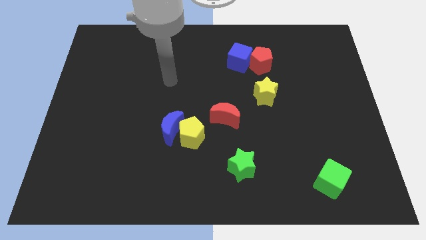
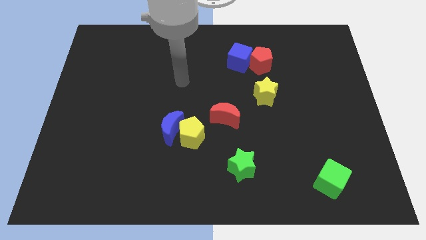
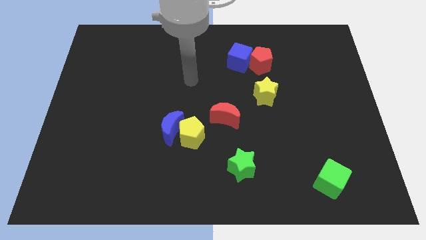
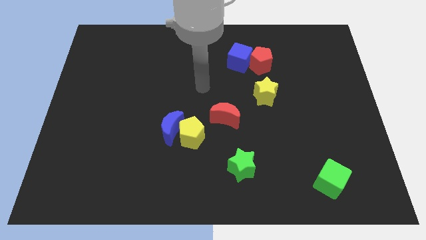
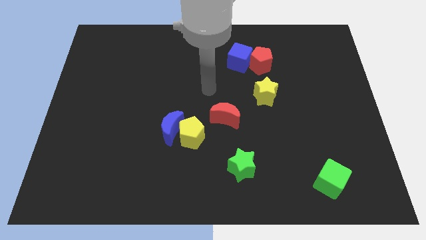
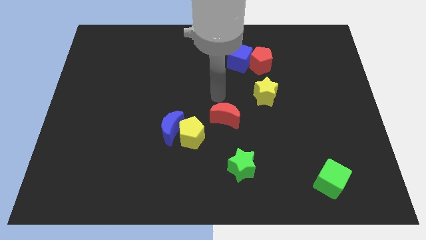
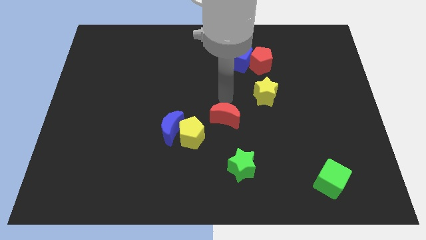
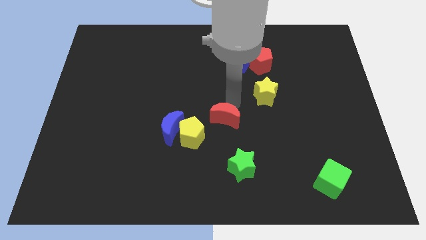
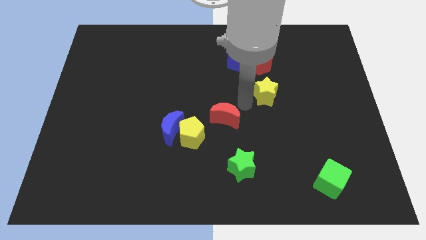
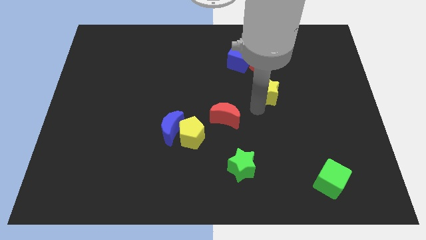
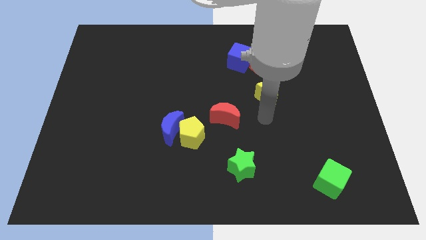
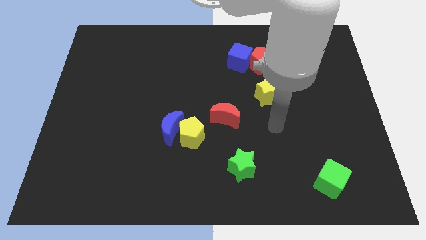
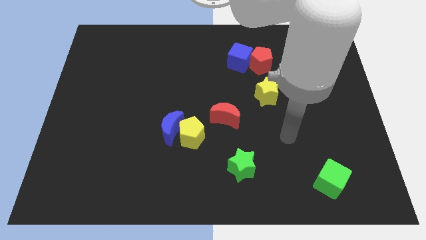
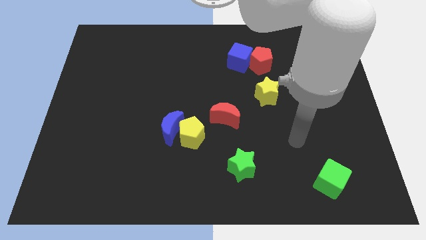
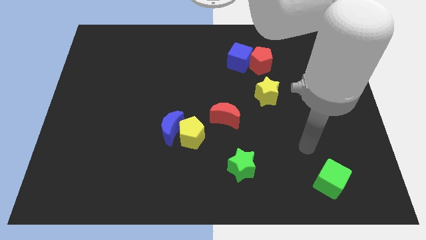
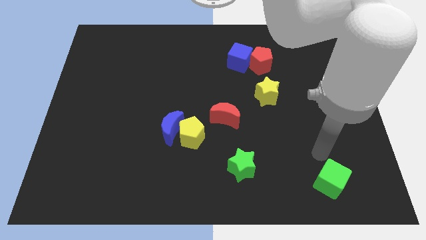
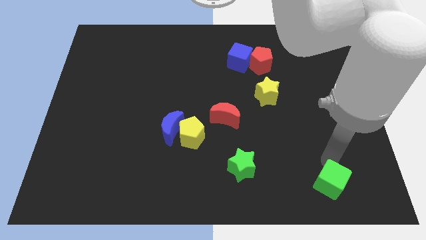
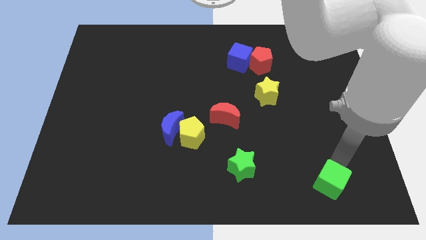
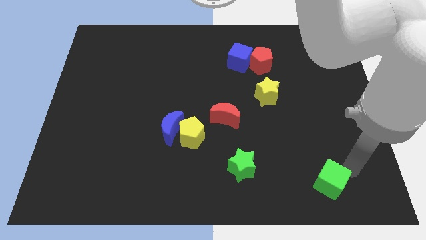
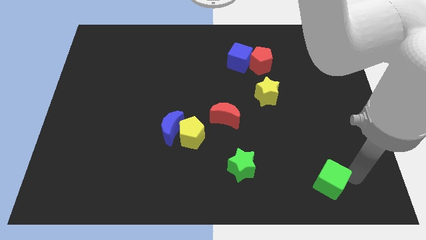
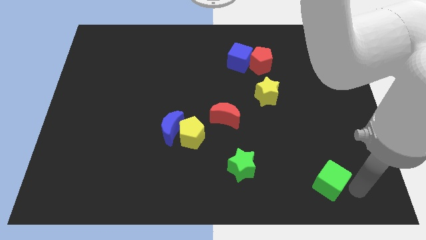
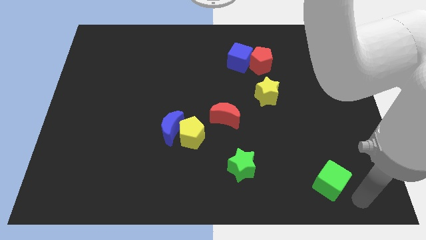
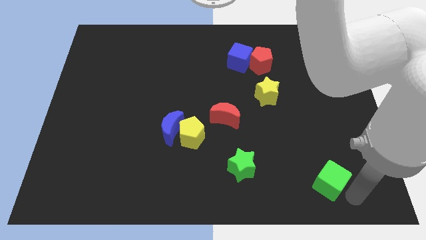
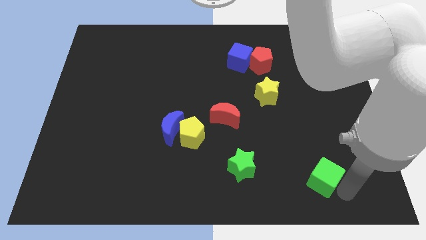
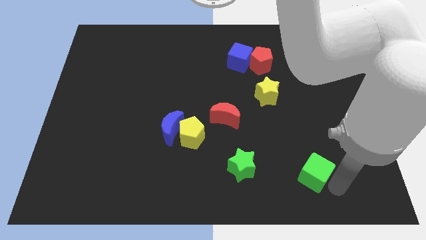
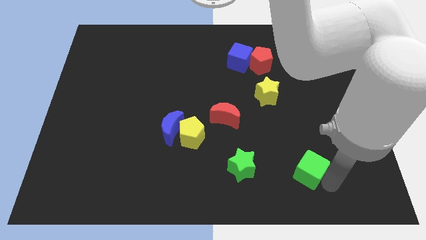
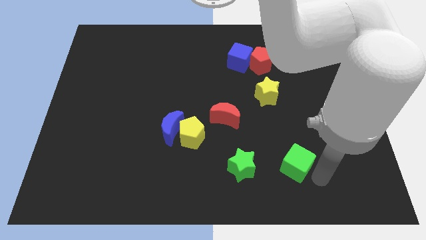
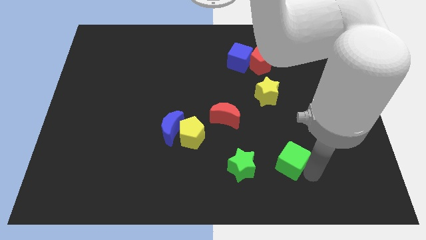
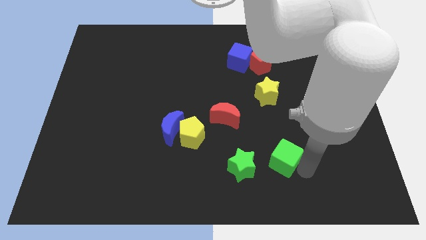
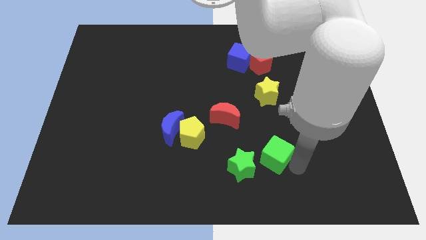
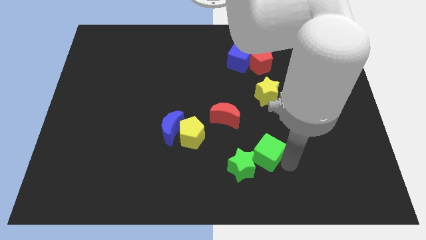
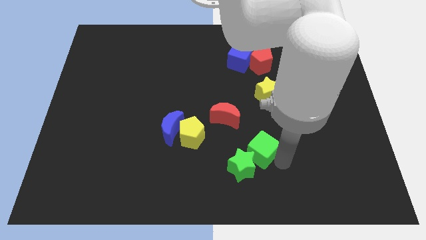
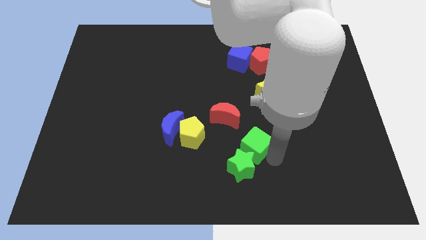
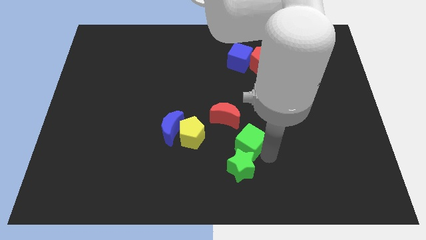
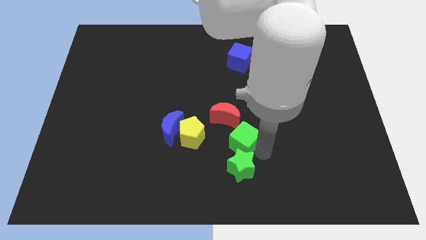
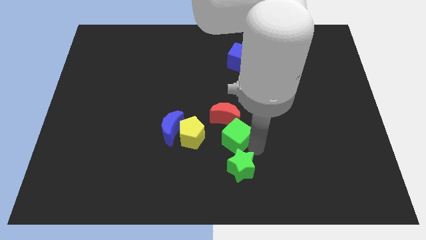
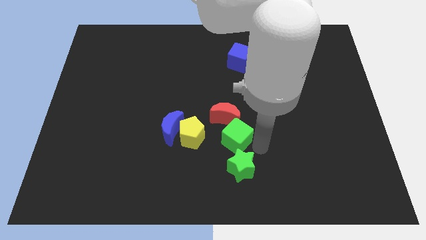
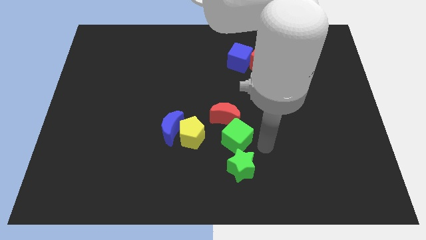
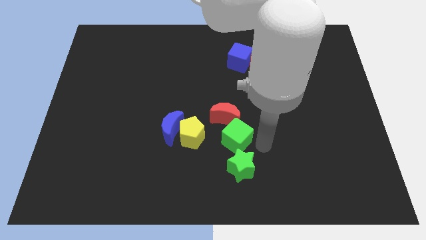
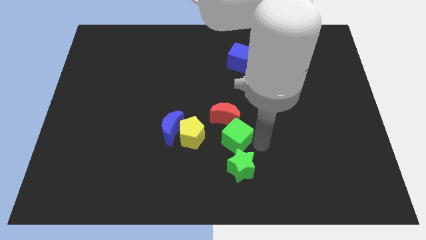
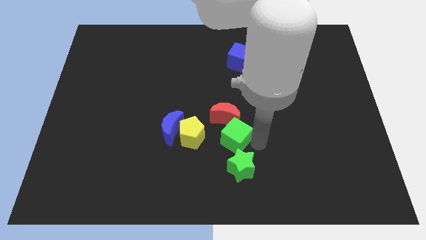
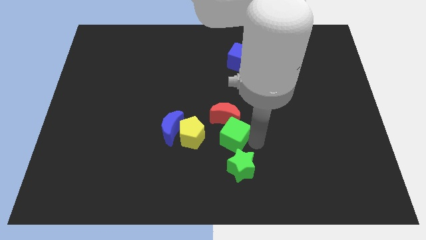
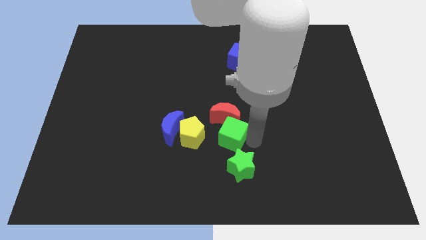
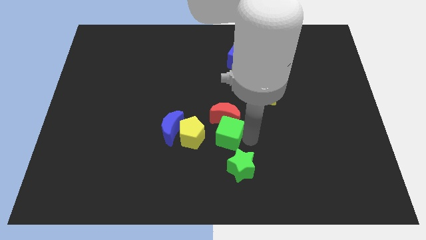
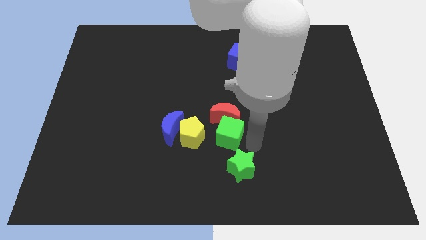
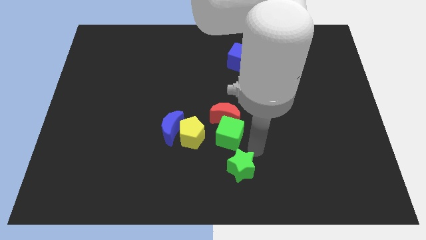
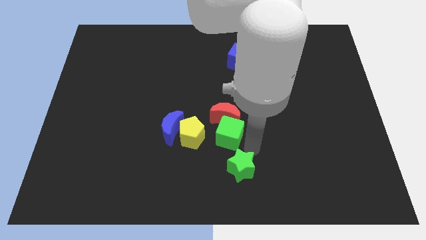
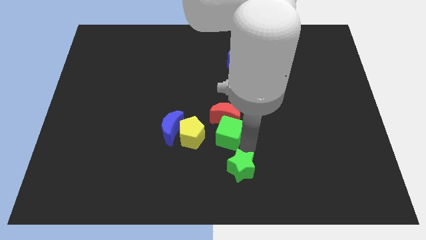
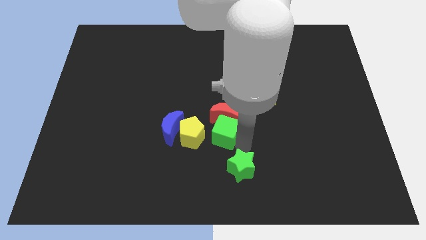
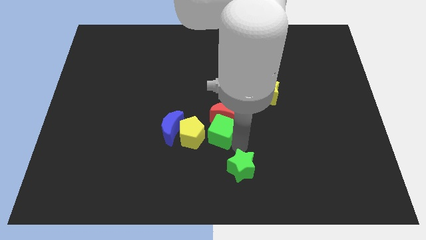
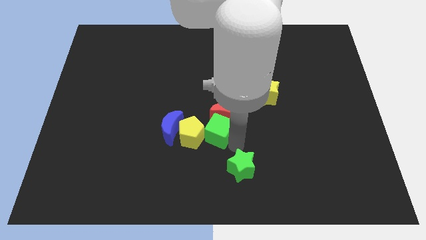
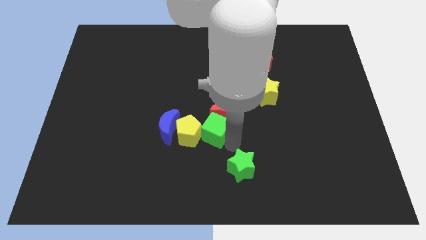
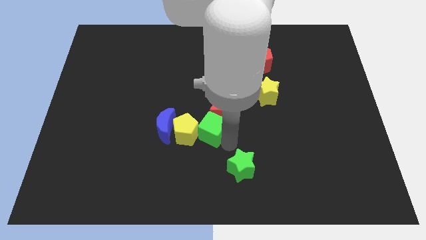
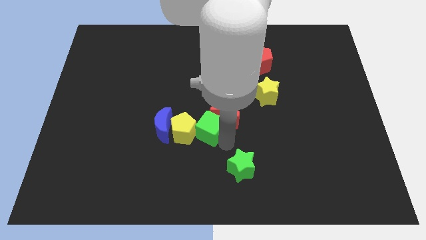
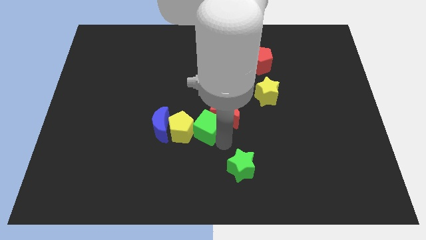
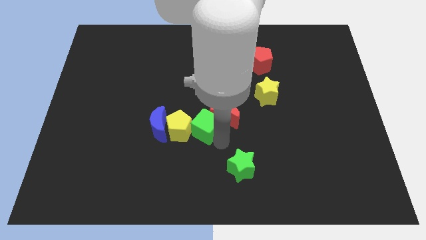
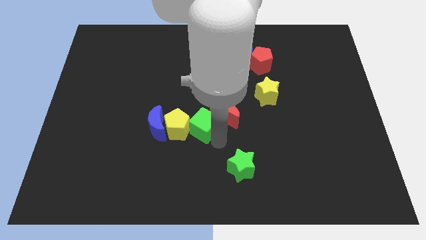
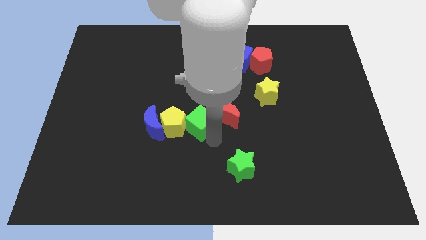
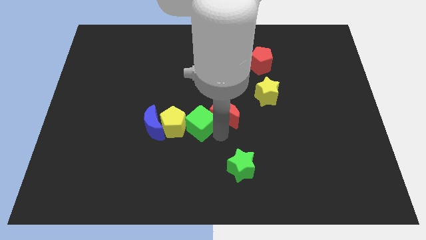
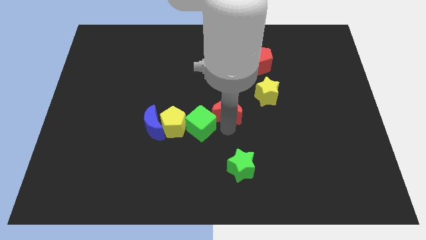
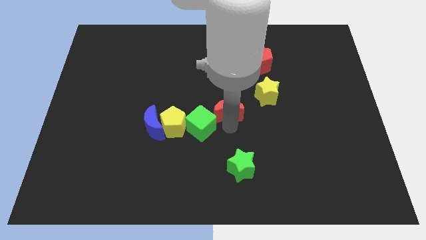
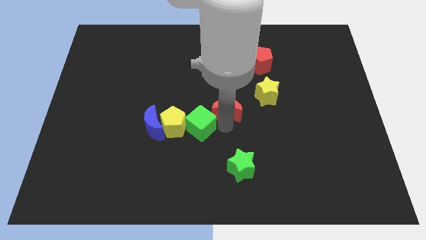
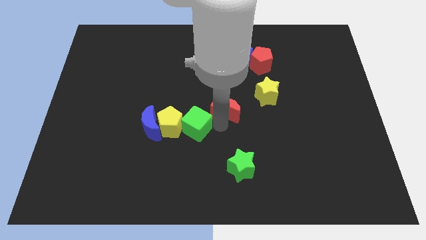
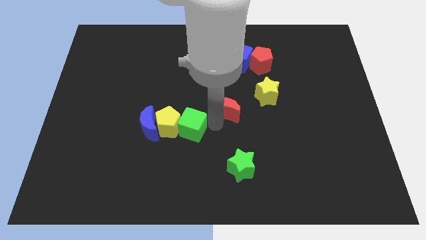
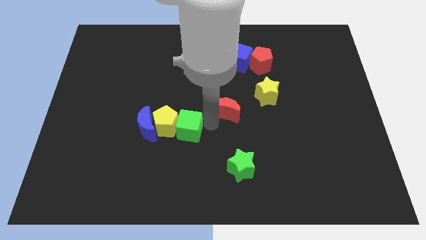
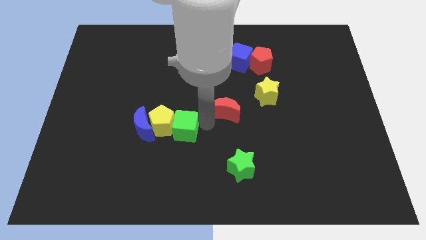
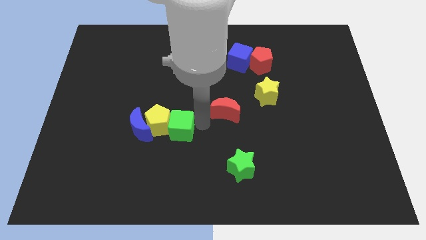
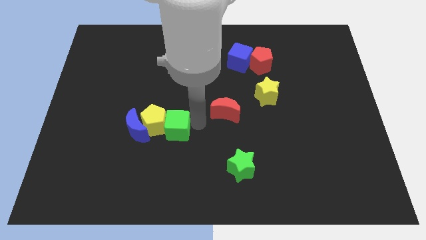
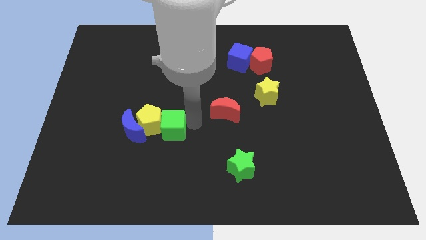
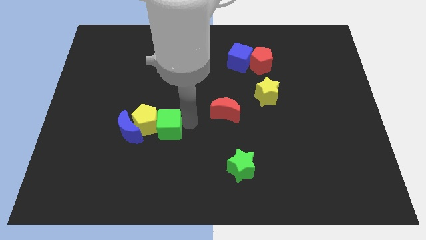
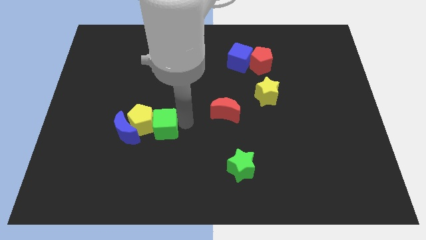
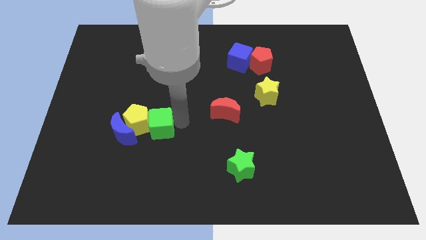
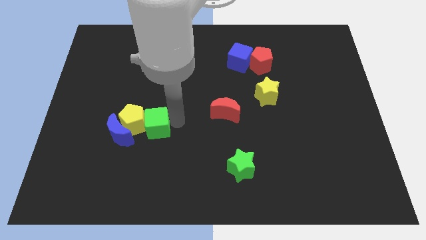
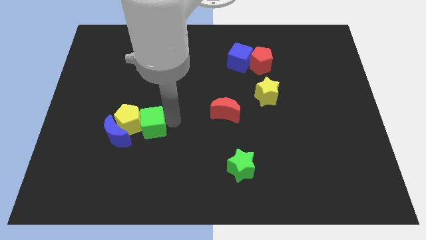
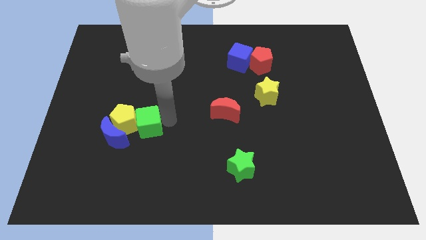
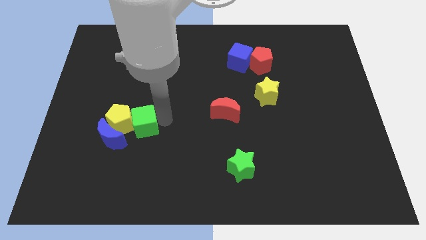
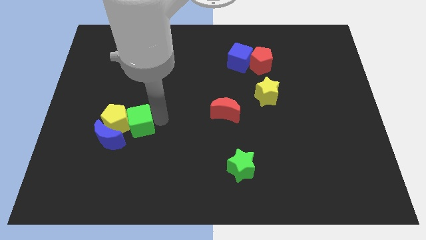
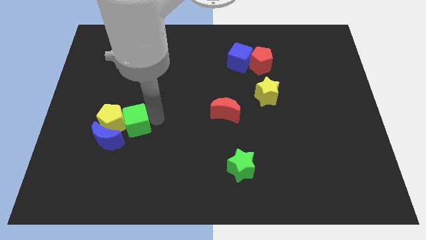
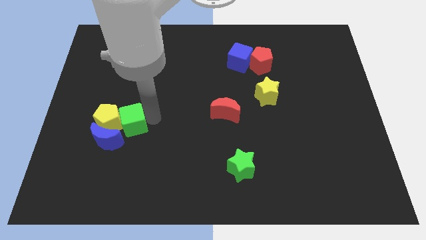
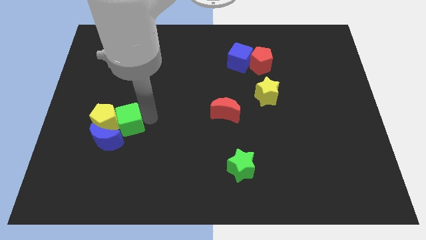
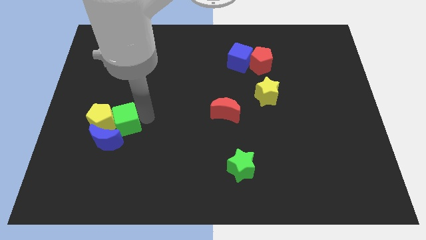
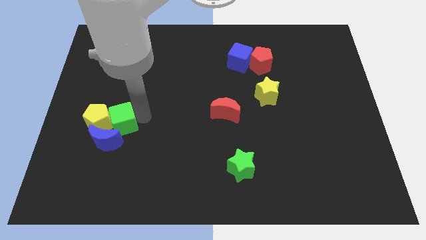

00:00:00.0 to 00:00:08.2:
move the green cube next to the blue moon
